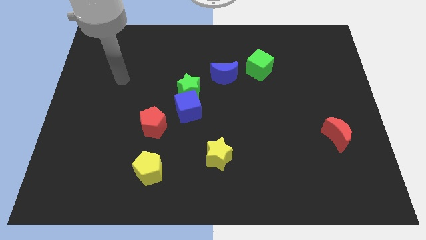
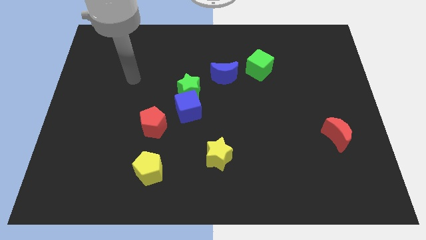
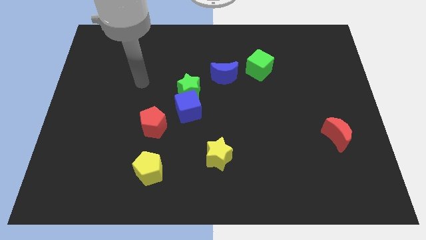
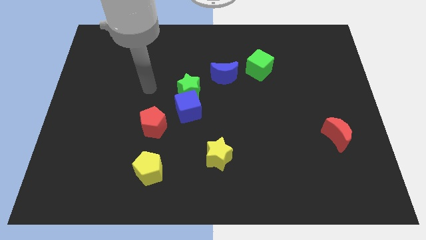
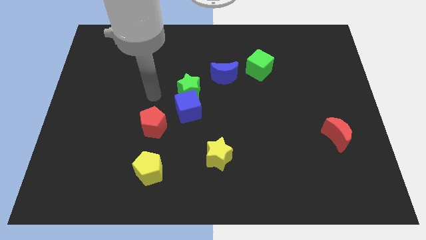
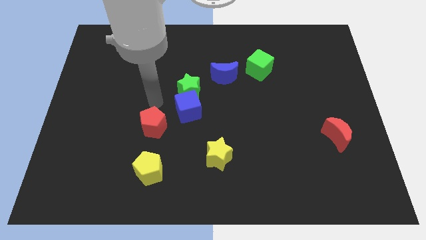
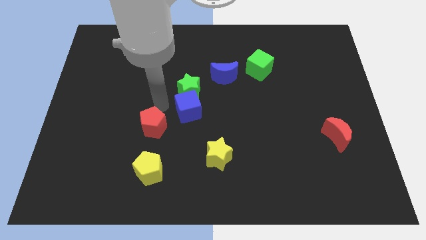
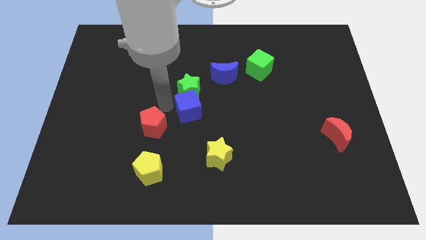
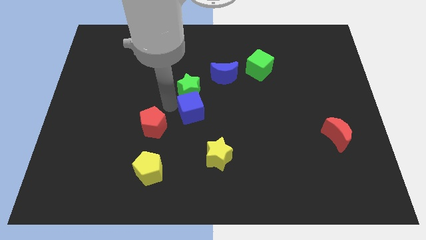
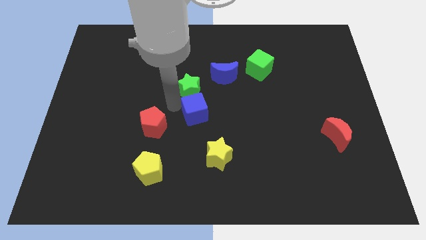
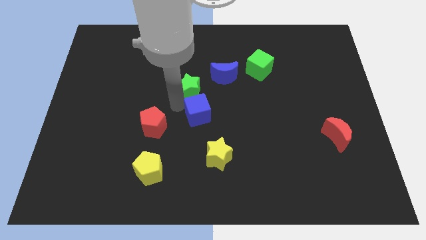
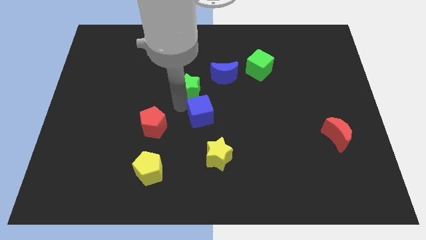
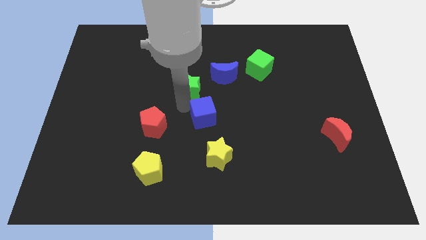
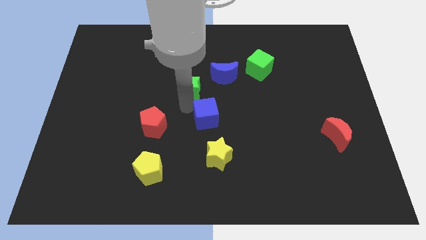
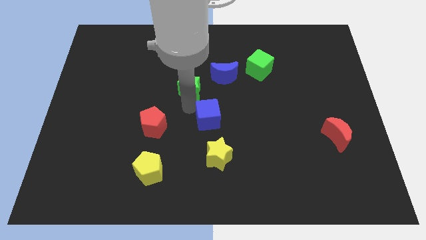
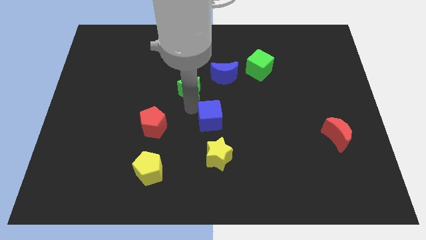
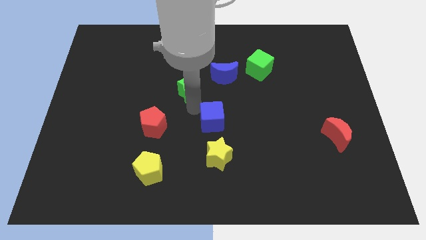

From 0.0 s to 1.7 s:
pull the blue cube apart from the green star and red pentagon

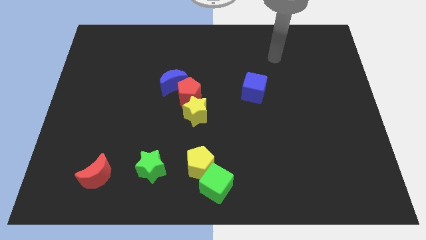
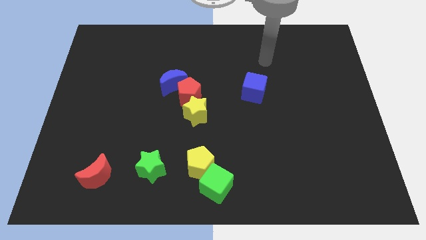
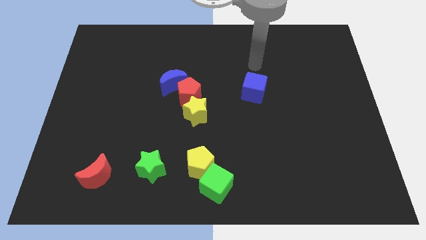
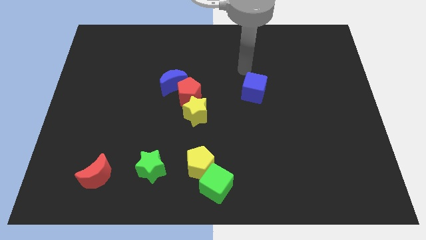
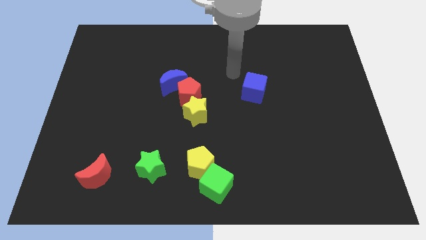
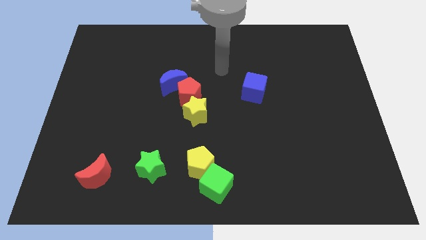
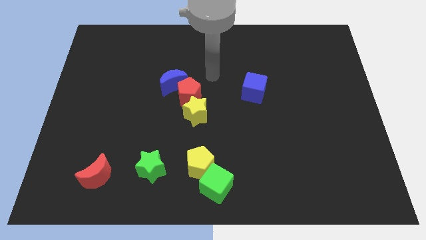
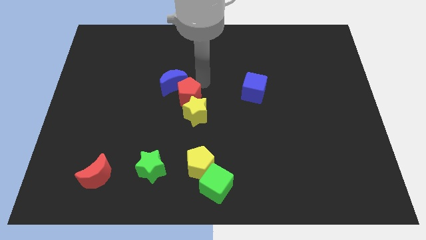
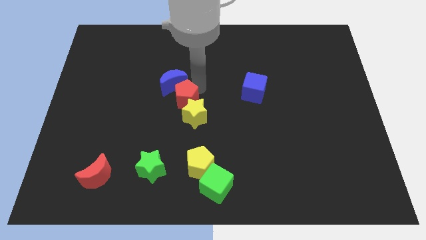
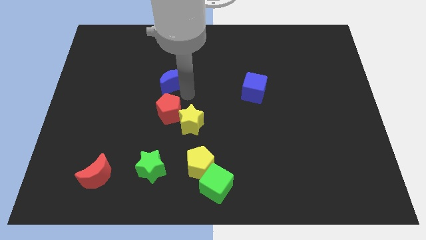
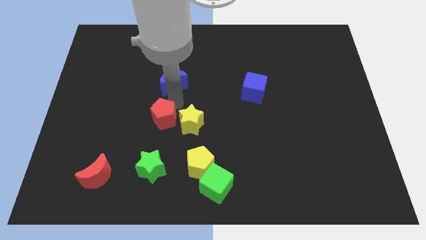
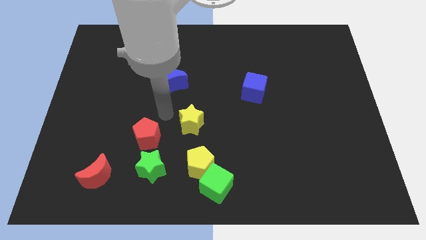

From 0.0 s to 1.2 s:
pull the yellow star apart from the red pentagon

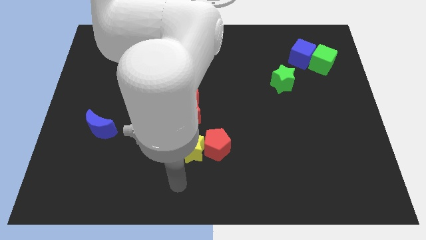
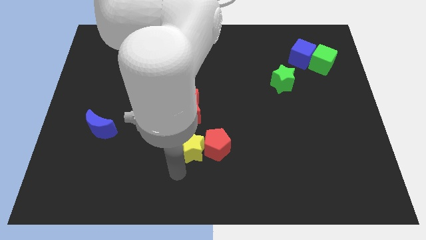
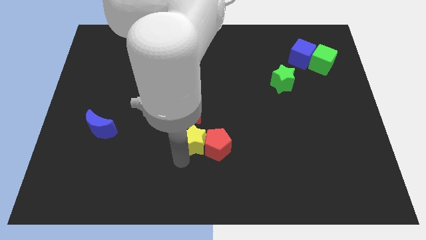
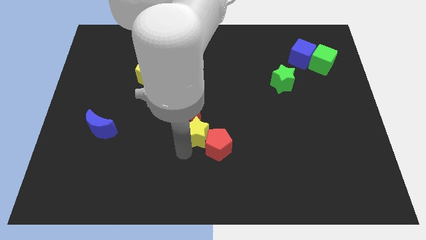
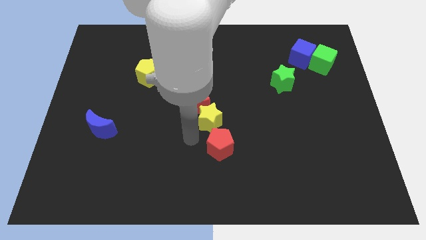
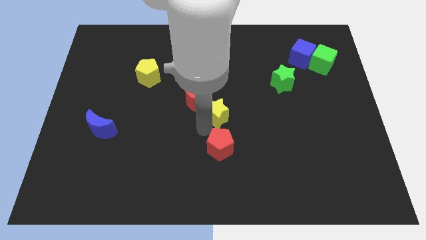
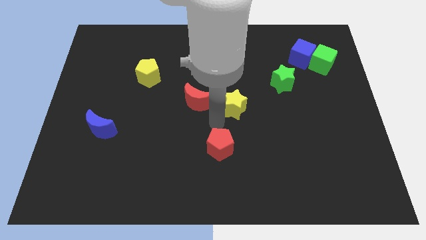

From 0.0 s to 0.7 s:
move the red pentagon away from the yellow star

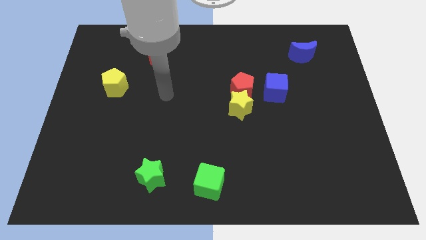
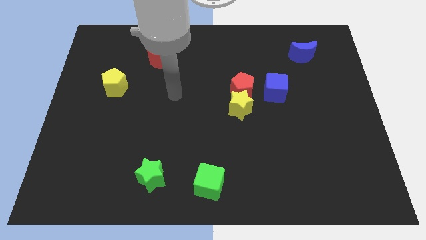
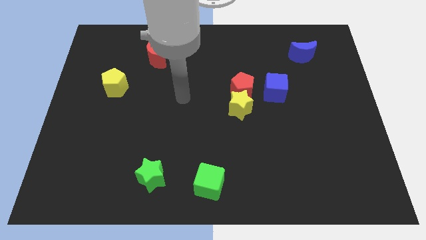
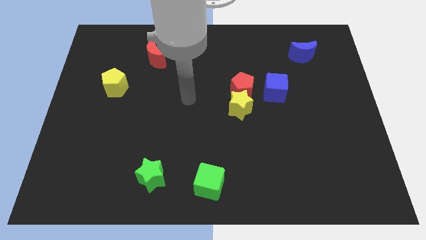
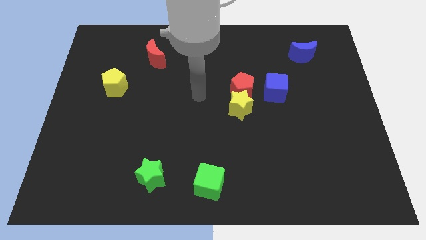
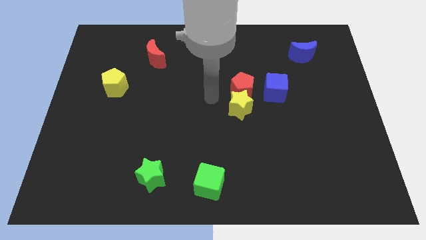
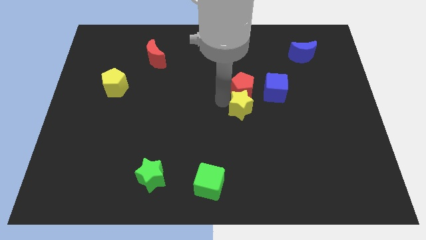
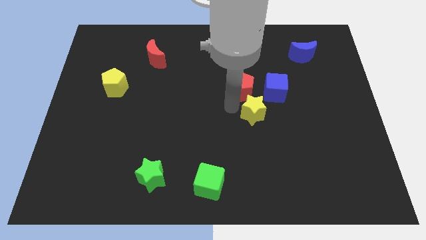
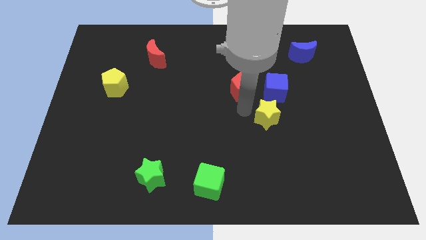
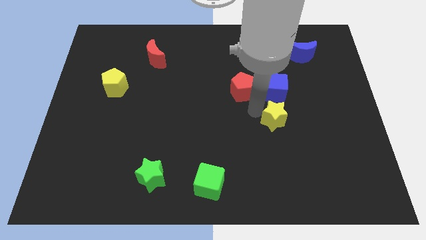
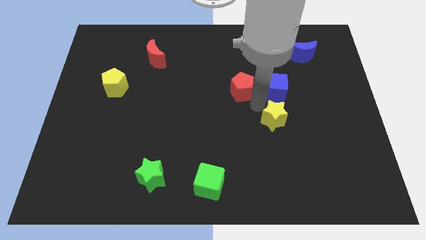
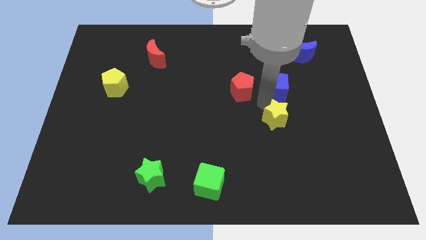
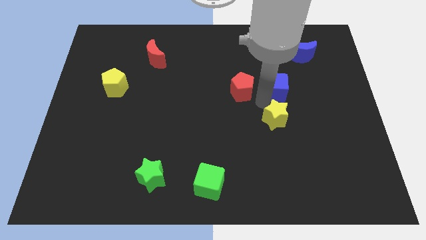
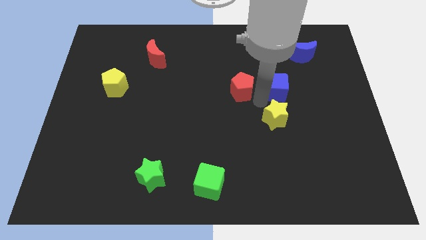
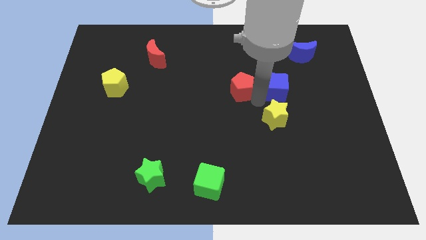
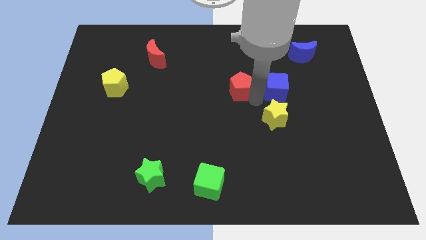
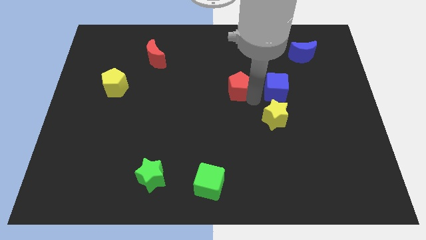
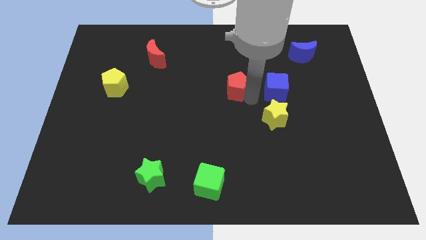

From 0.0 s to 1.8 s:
pull the red pentagon apart from the yellow star and blue cube

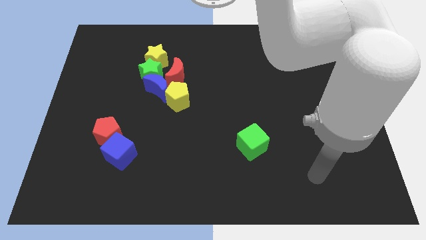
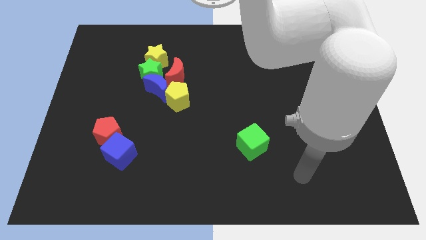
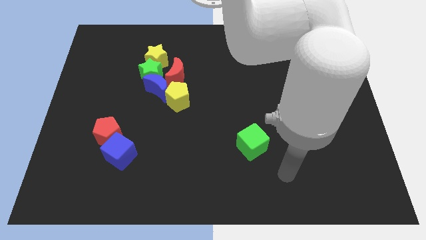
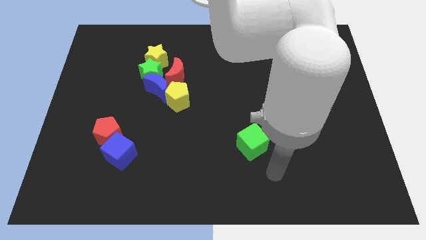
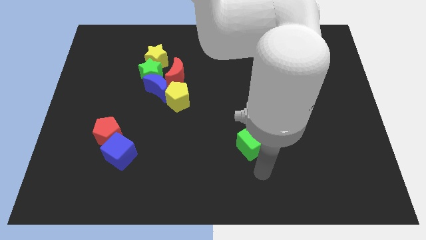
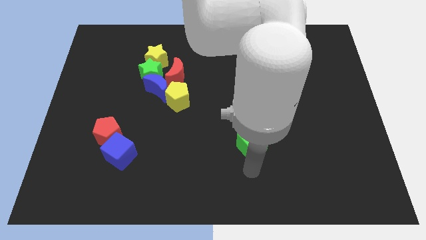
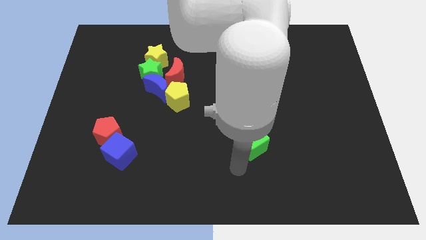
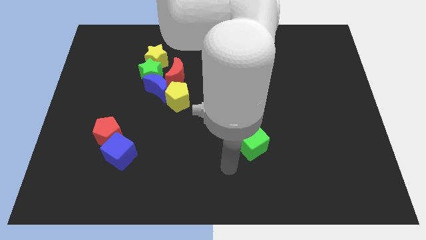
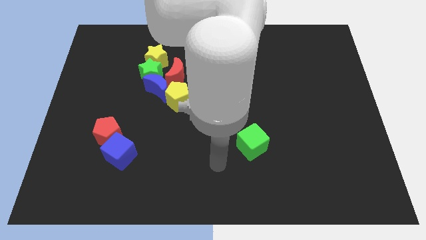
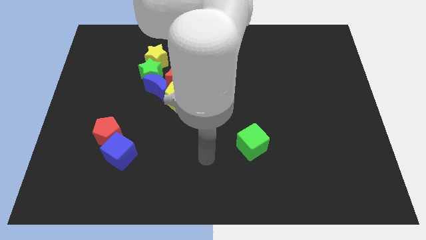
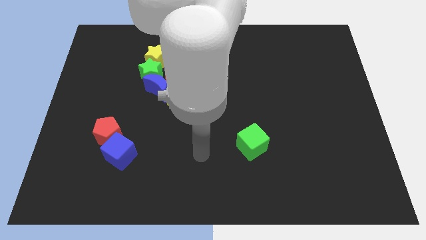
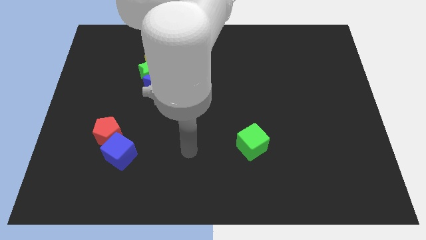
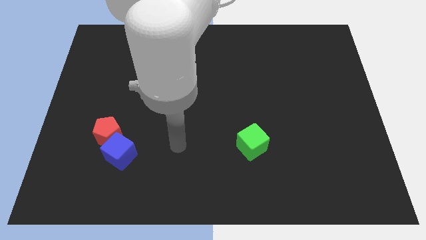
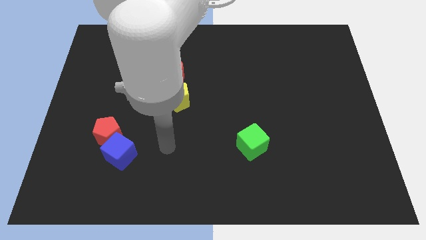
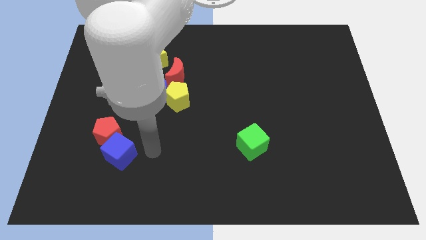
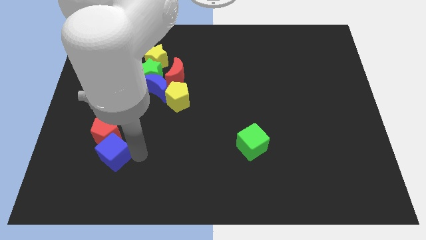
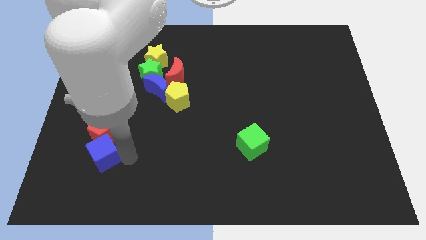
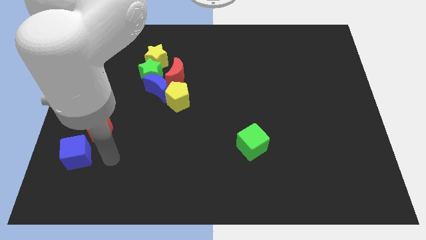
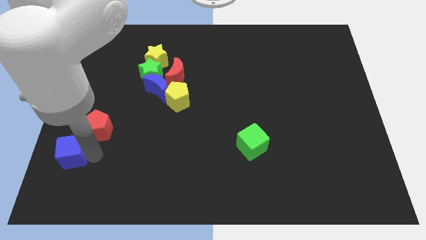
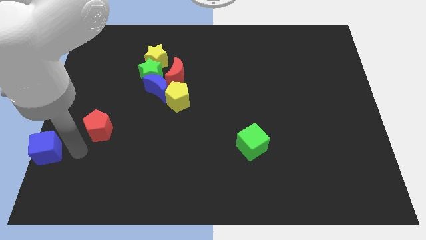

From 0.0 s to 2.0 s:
separate the red pentagon from the blue cube

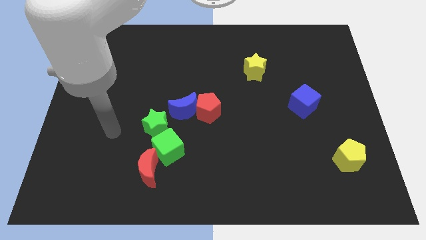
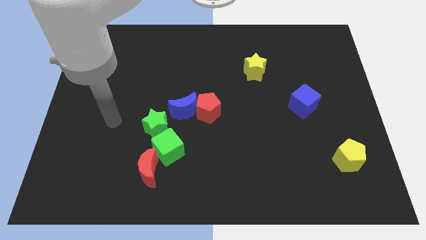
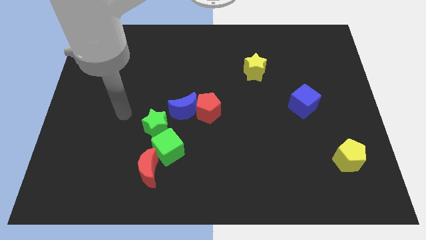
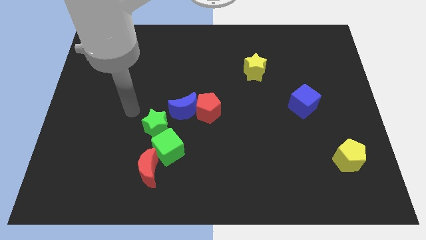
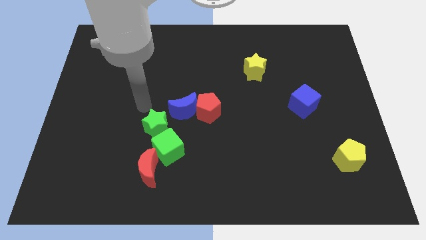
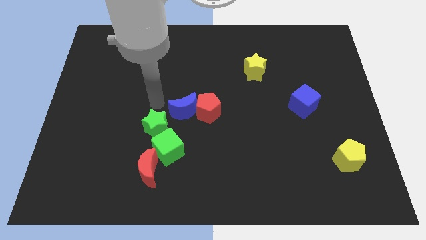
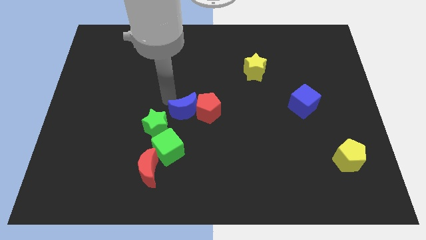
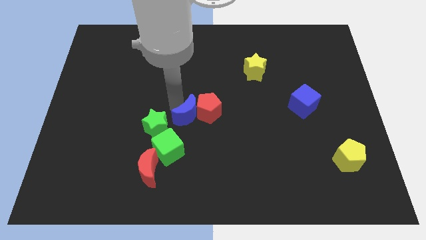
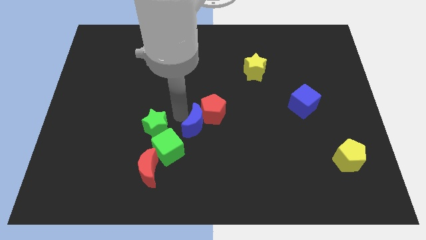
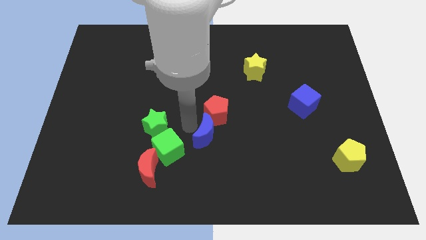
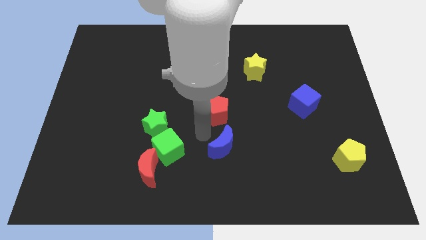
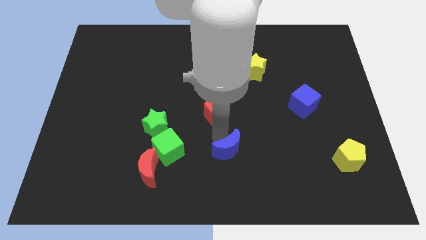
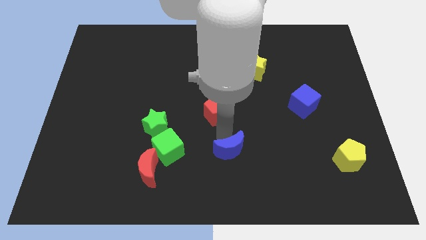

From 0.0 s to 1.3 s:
pull the red pentagon apart from the blue moon

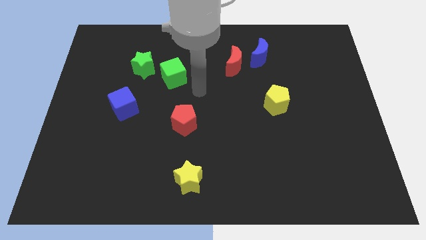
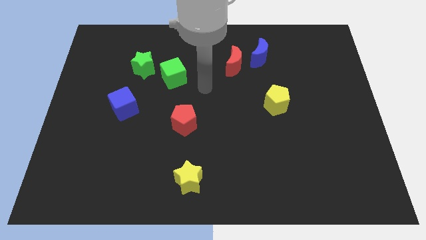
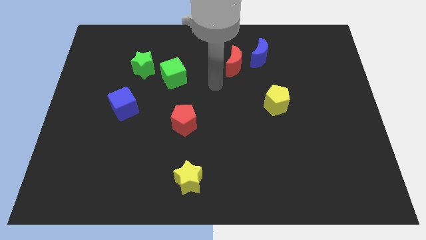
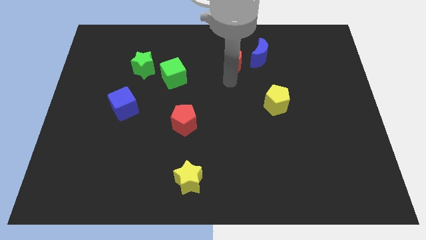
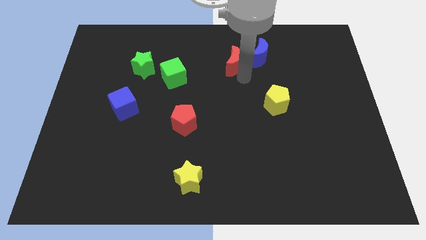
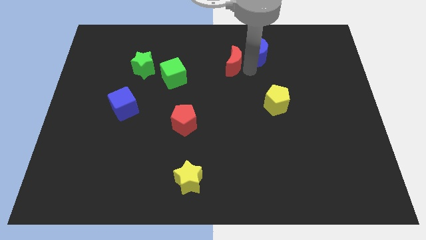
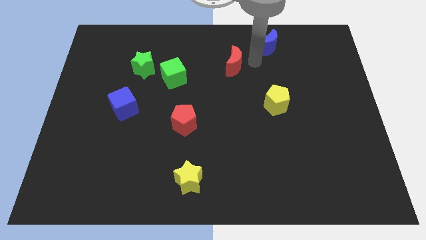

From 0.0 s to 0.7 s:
move the red moon away from the blue moon

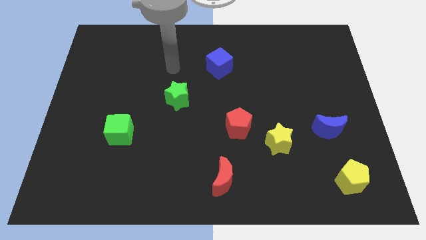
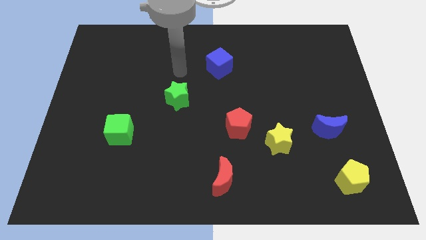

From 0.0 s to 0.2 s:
separate the red pentagon from the yellow star
